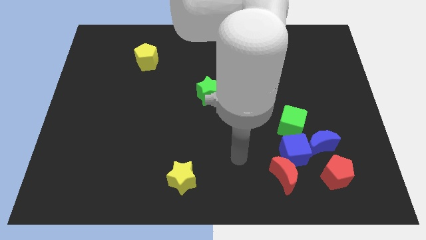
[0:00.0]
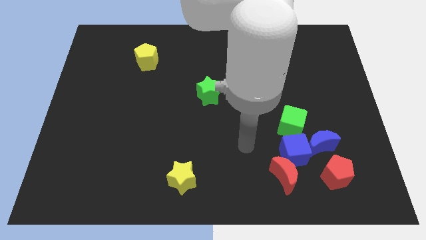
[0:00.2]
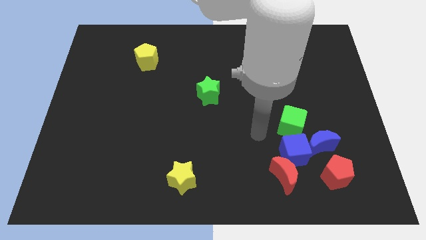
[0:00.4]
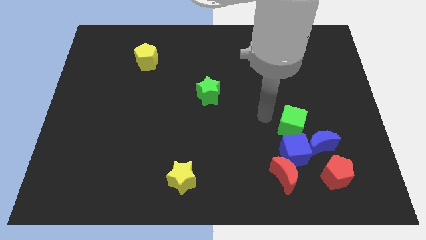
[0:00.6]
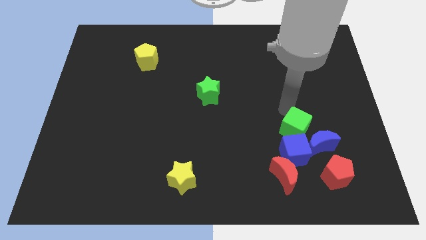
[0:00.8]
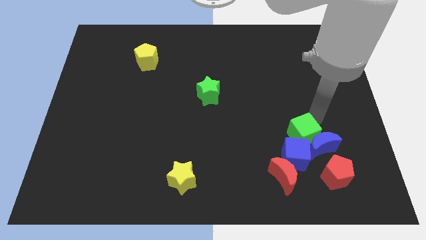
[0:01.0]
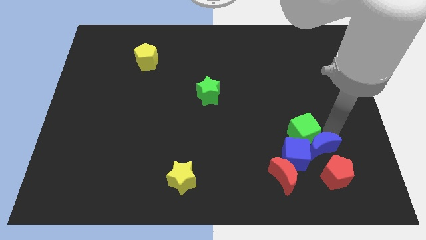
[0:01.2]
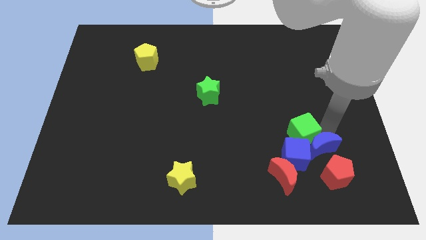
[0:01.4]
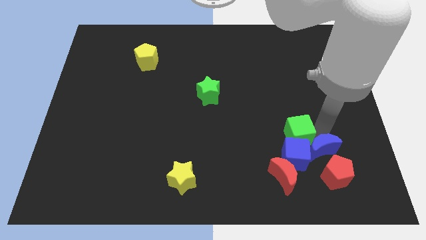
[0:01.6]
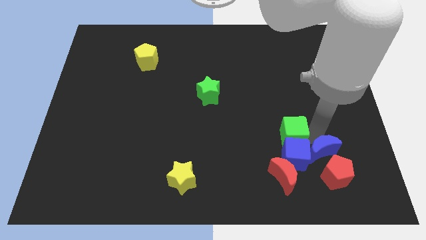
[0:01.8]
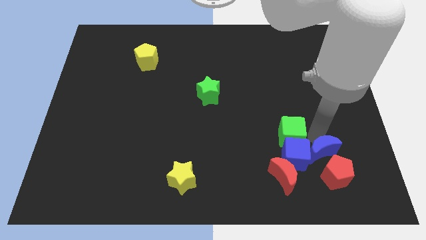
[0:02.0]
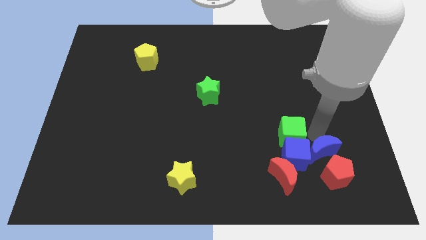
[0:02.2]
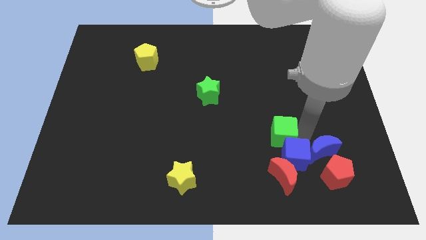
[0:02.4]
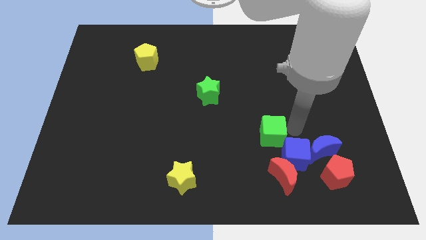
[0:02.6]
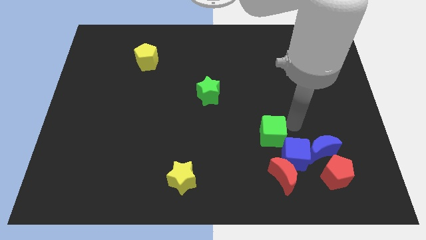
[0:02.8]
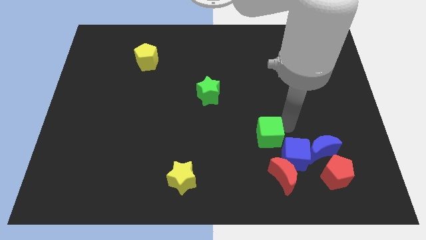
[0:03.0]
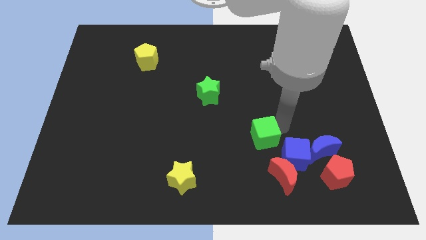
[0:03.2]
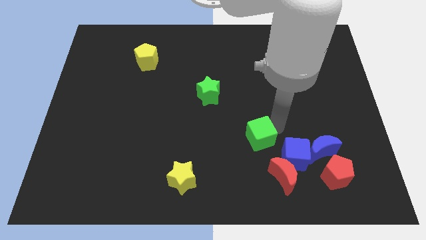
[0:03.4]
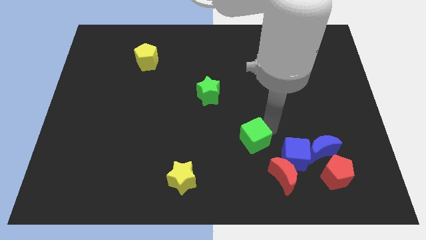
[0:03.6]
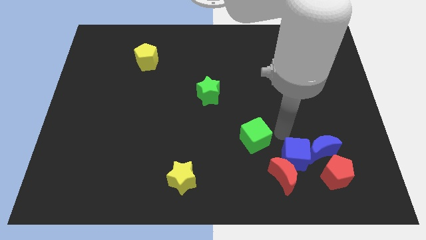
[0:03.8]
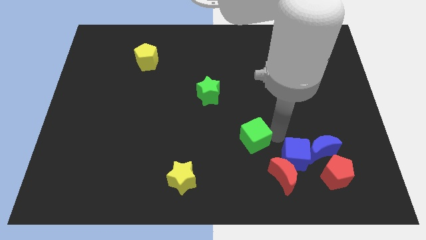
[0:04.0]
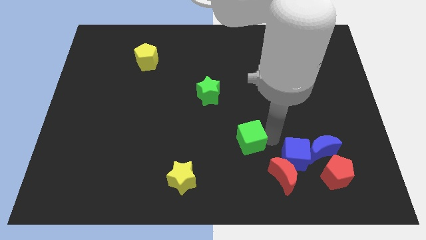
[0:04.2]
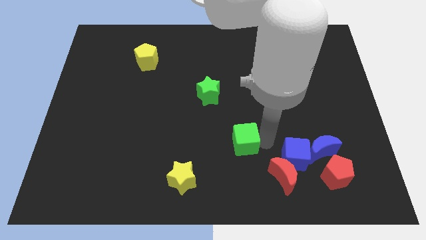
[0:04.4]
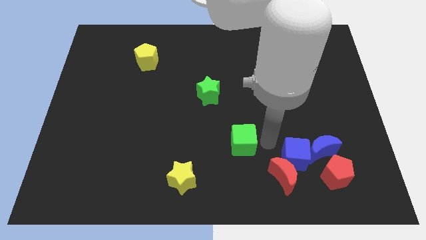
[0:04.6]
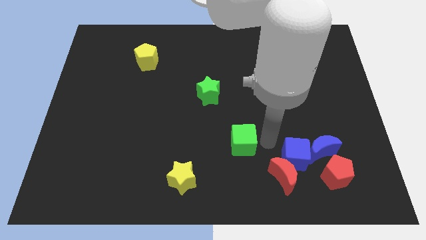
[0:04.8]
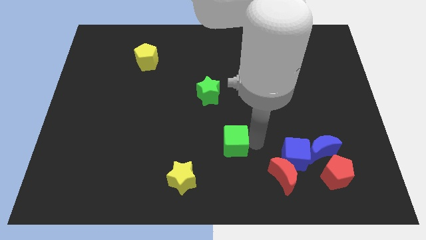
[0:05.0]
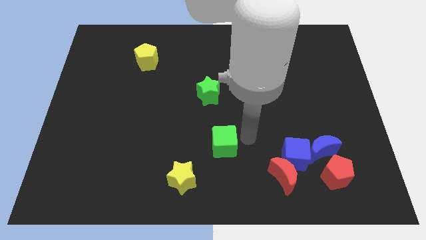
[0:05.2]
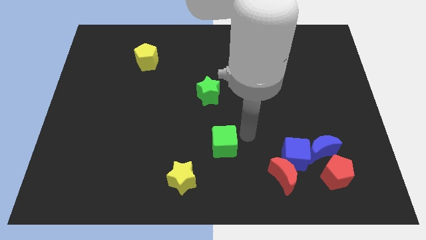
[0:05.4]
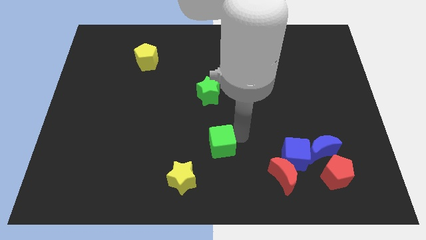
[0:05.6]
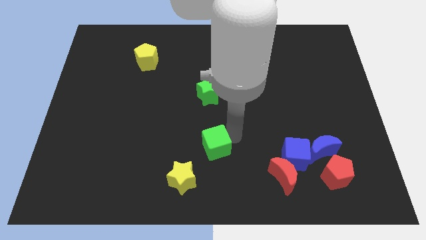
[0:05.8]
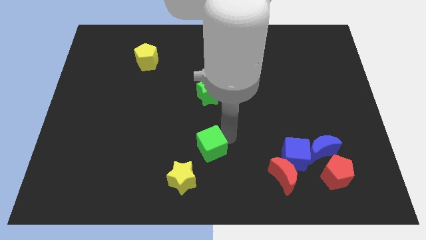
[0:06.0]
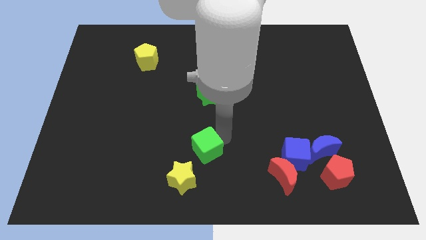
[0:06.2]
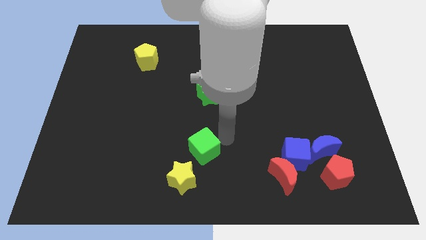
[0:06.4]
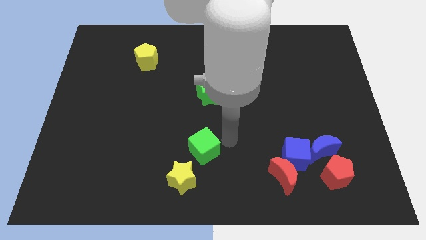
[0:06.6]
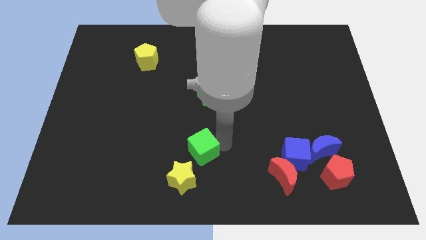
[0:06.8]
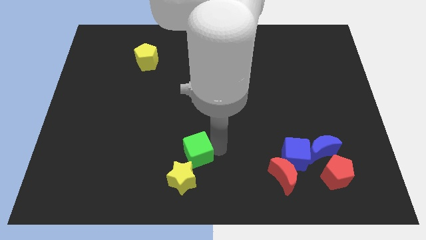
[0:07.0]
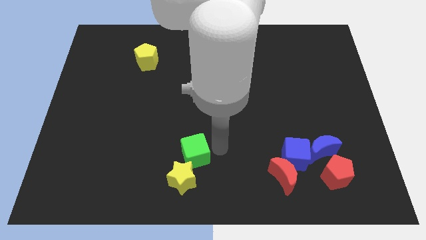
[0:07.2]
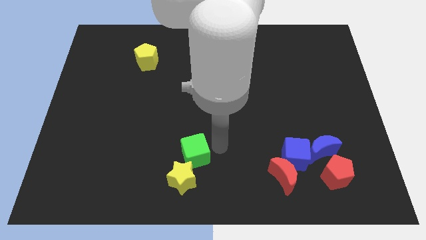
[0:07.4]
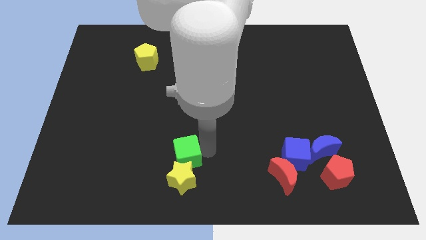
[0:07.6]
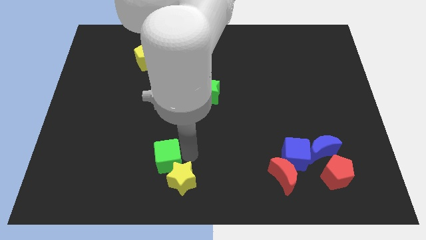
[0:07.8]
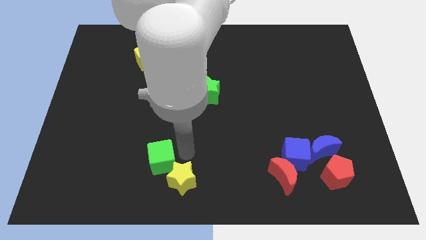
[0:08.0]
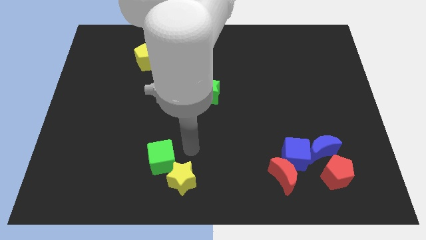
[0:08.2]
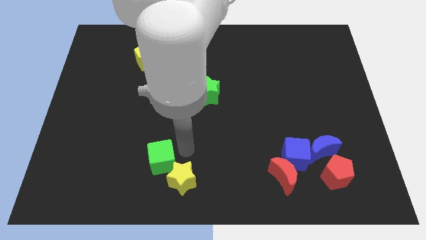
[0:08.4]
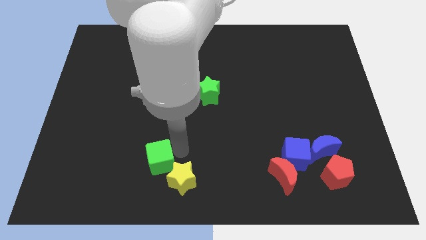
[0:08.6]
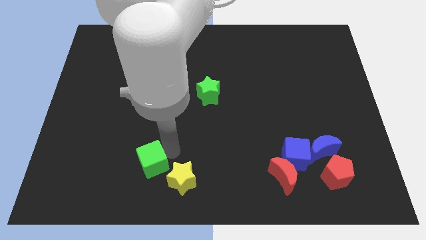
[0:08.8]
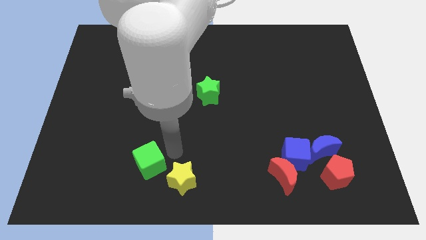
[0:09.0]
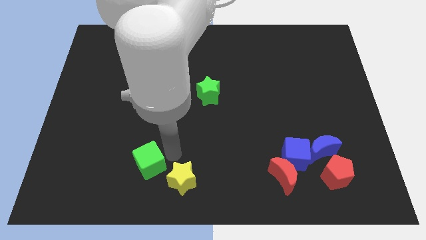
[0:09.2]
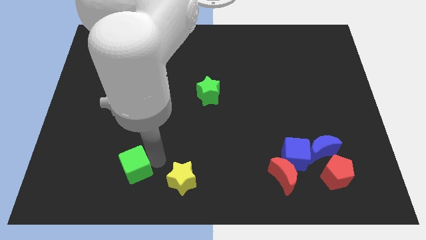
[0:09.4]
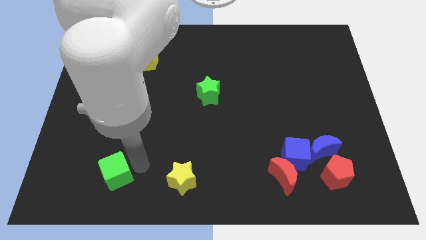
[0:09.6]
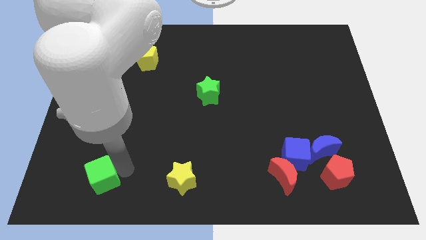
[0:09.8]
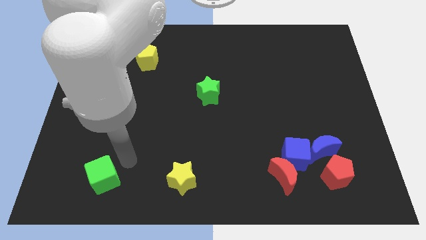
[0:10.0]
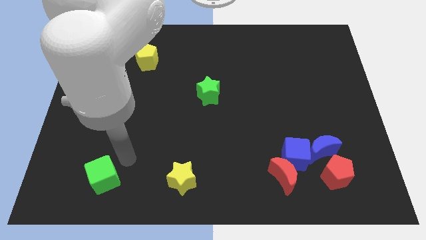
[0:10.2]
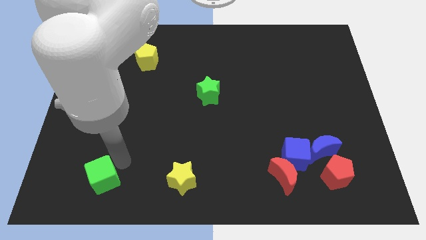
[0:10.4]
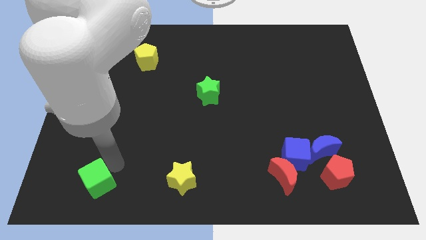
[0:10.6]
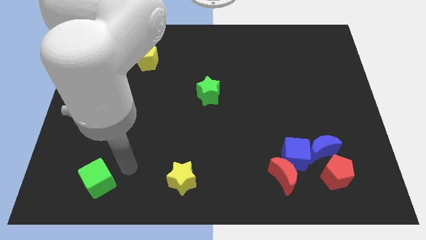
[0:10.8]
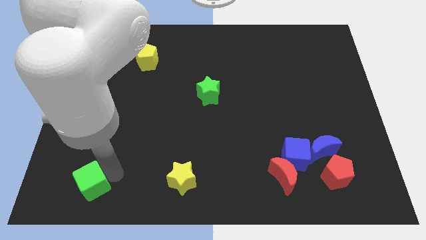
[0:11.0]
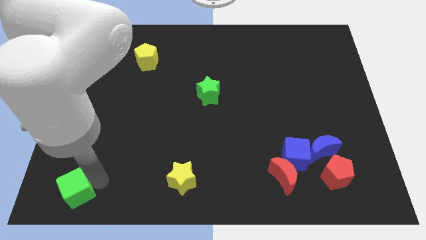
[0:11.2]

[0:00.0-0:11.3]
slide the green cube to the bottom left of the board

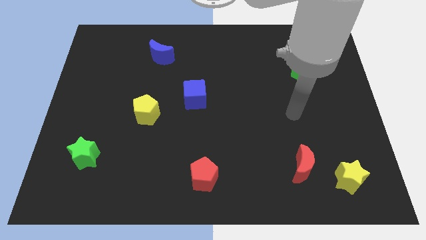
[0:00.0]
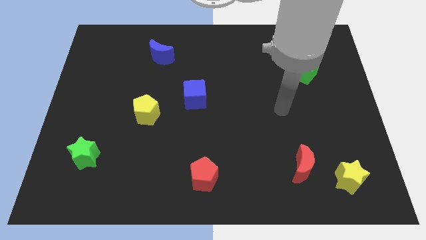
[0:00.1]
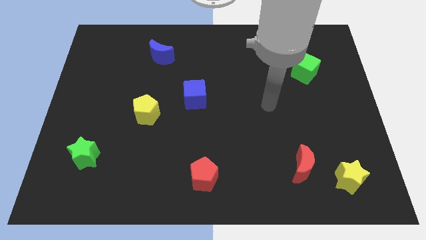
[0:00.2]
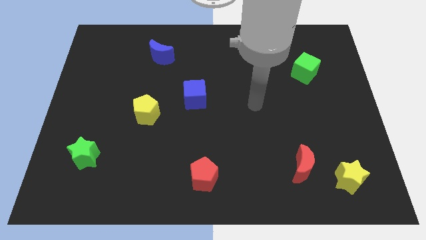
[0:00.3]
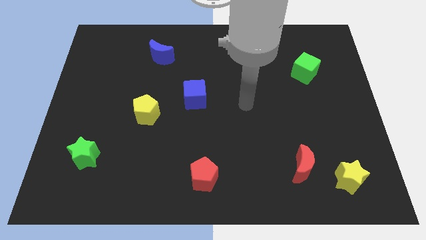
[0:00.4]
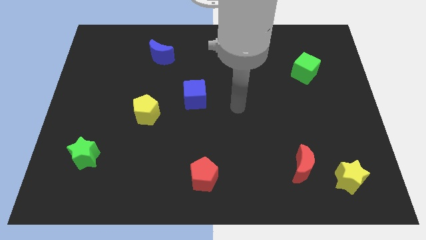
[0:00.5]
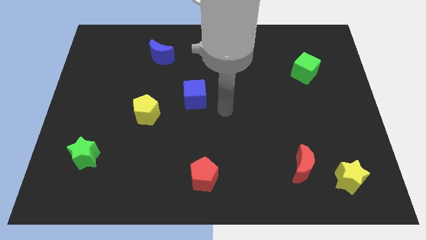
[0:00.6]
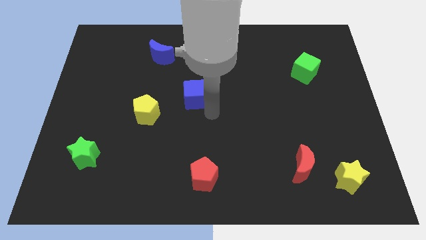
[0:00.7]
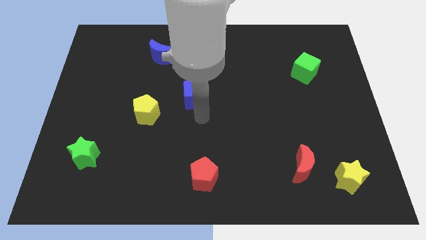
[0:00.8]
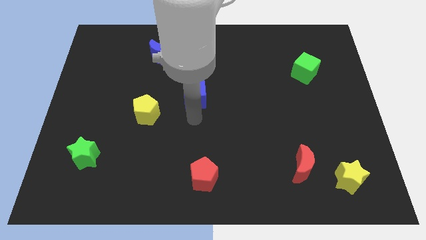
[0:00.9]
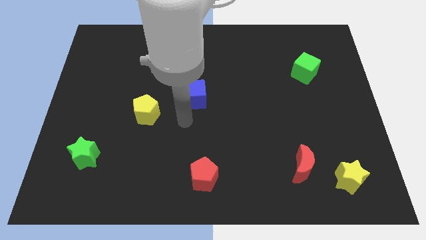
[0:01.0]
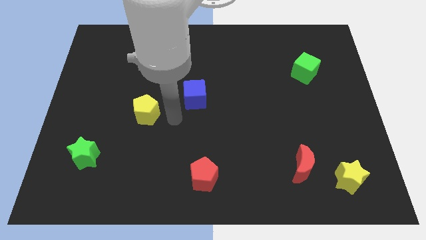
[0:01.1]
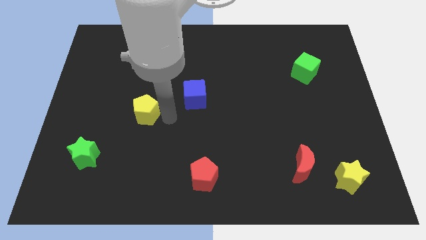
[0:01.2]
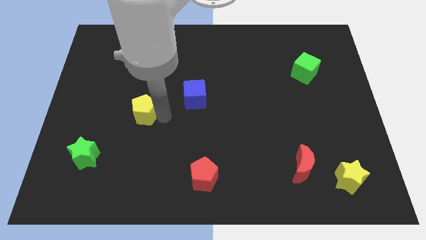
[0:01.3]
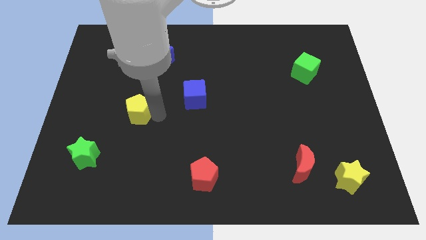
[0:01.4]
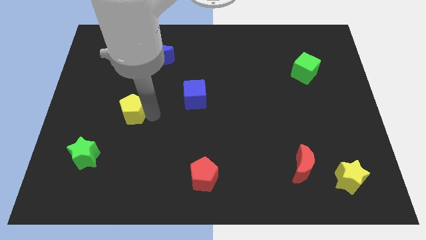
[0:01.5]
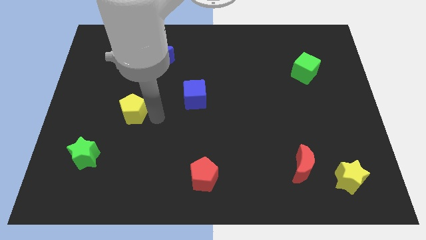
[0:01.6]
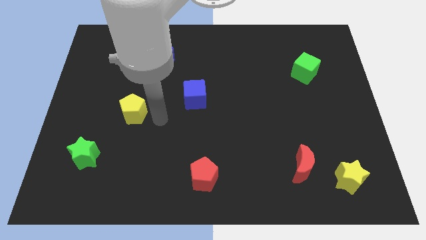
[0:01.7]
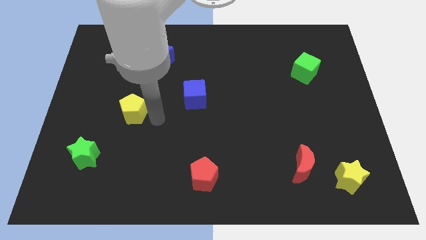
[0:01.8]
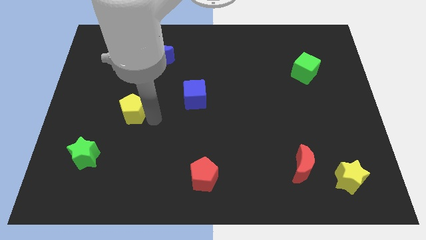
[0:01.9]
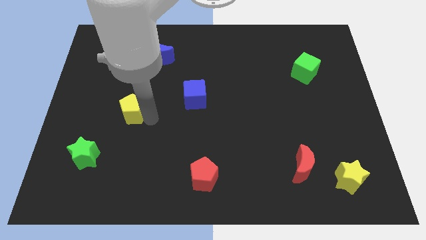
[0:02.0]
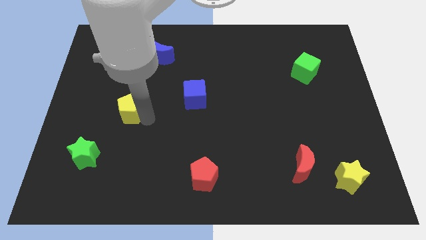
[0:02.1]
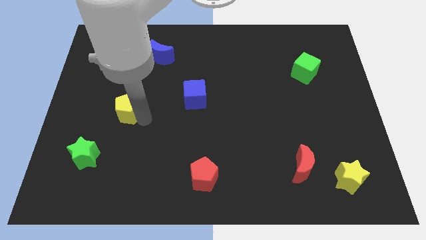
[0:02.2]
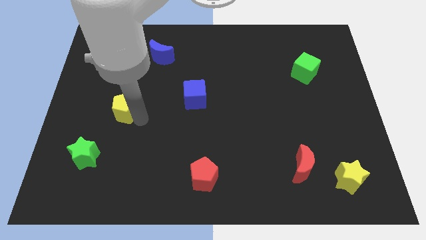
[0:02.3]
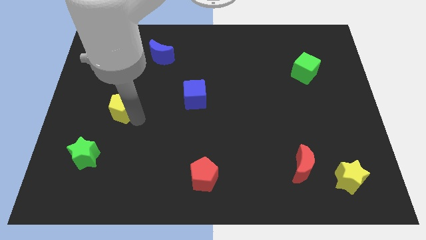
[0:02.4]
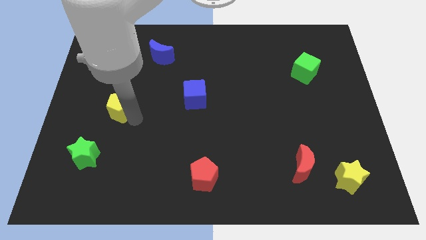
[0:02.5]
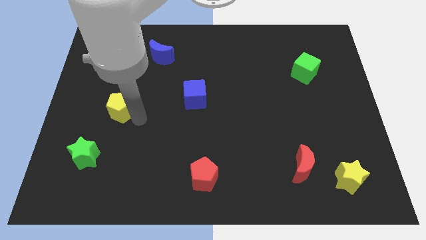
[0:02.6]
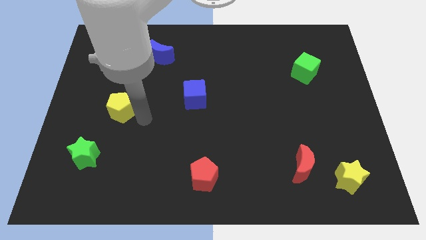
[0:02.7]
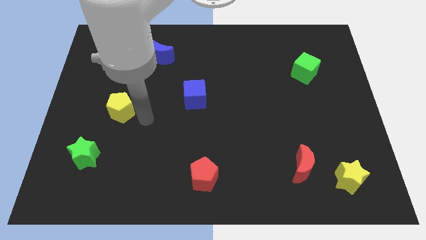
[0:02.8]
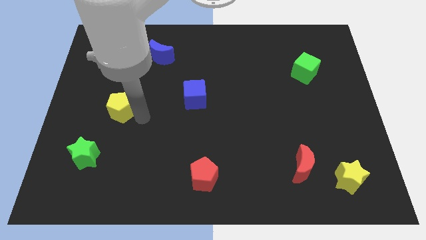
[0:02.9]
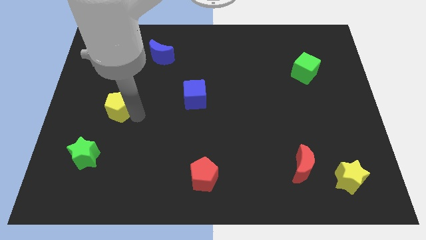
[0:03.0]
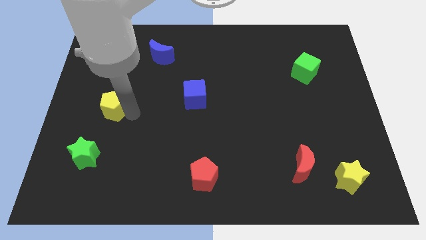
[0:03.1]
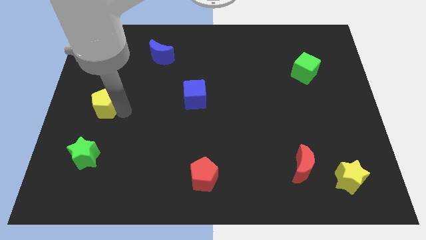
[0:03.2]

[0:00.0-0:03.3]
slide the yellow pentagon to the left side
